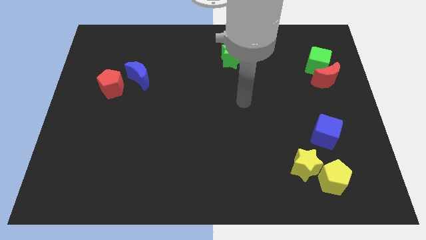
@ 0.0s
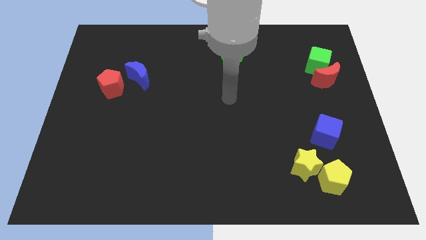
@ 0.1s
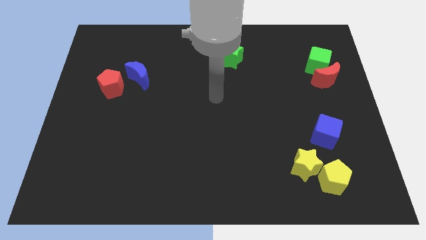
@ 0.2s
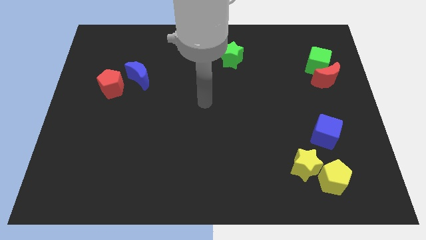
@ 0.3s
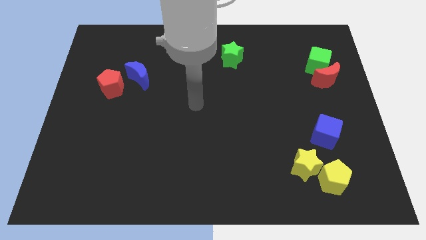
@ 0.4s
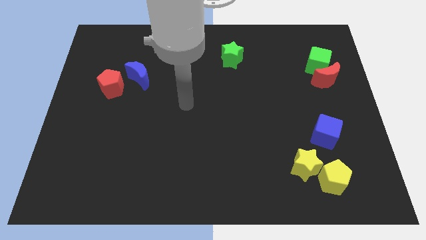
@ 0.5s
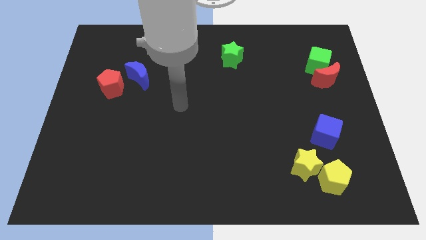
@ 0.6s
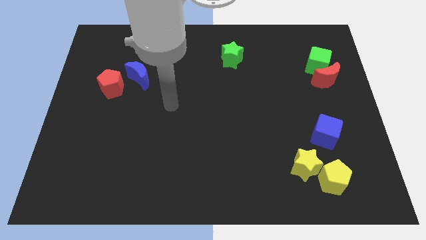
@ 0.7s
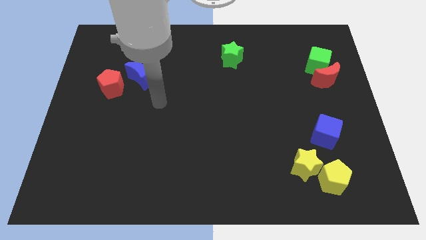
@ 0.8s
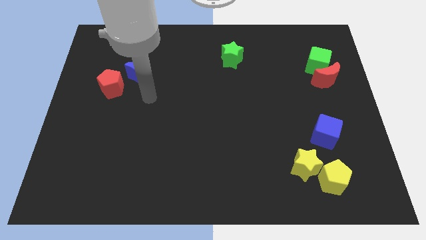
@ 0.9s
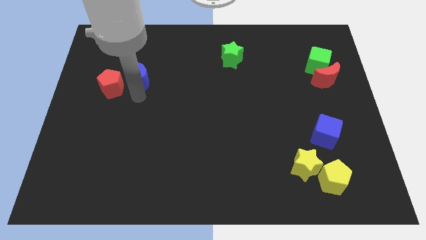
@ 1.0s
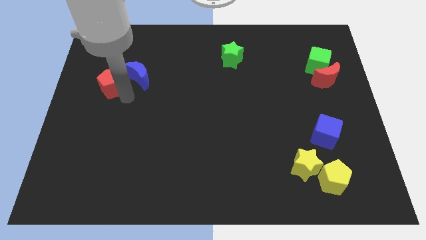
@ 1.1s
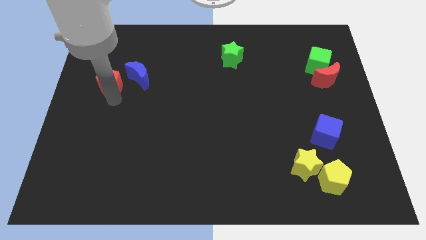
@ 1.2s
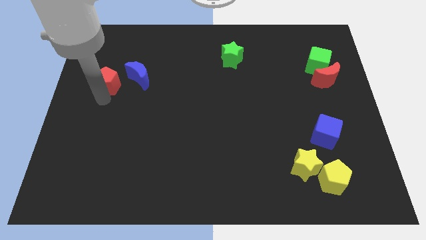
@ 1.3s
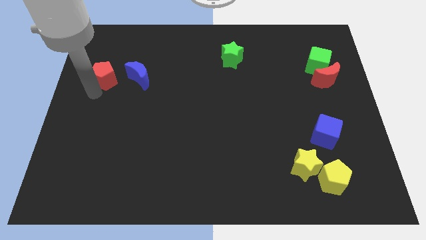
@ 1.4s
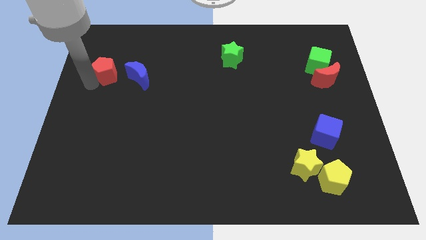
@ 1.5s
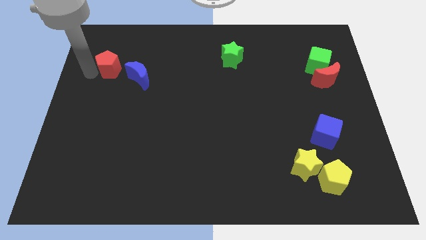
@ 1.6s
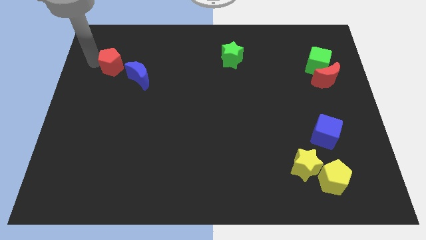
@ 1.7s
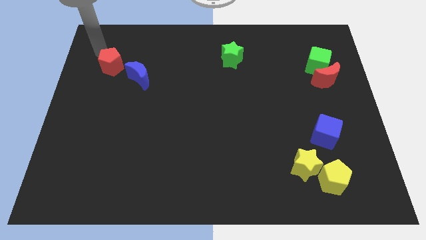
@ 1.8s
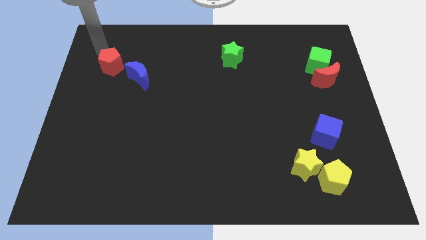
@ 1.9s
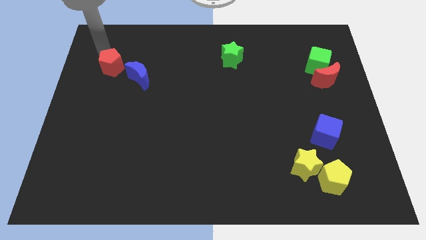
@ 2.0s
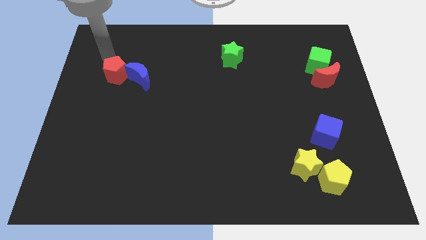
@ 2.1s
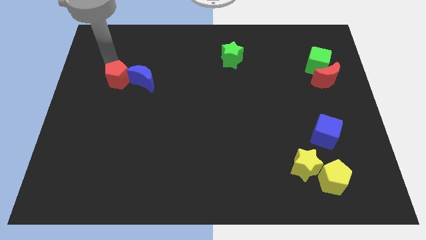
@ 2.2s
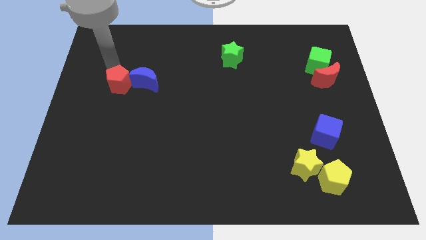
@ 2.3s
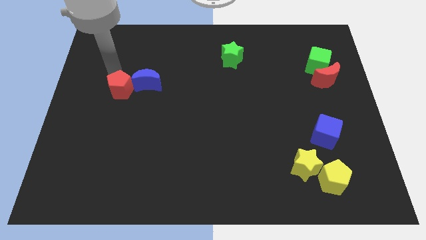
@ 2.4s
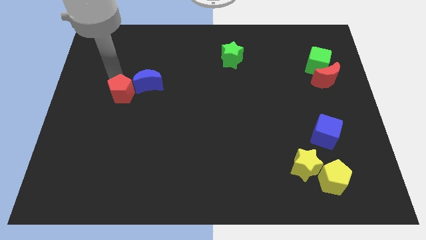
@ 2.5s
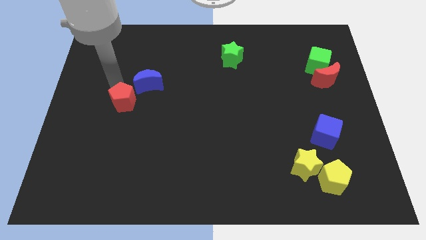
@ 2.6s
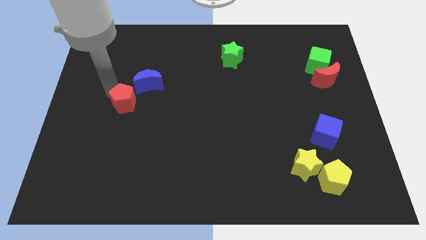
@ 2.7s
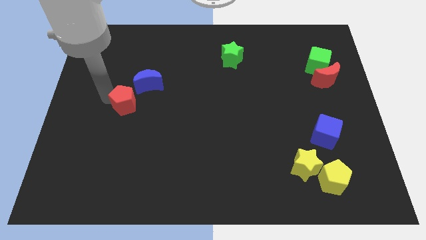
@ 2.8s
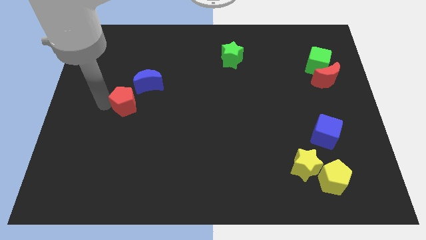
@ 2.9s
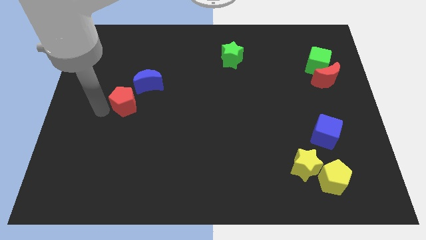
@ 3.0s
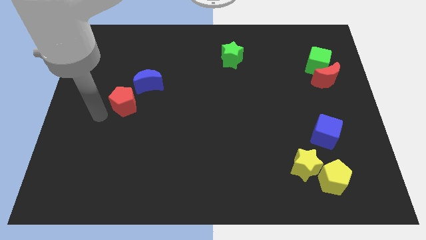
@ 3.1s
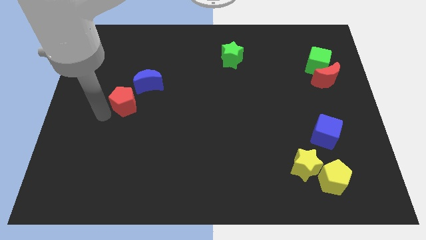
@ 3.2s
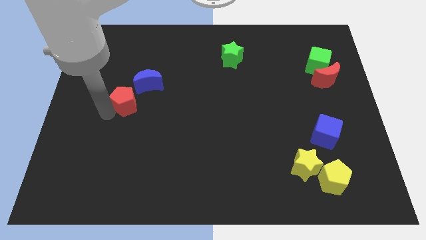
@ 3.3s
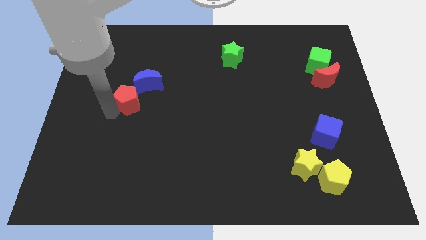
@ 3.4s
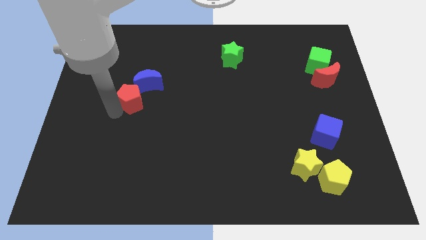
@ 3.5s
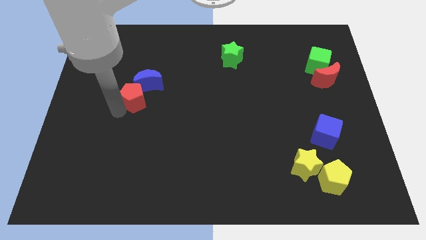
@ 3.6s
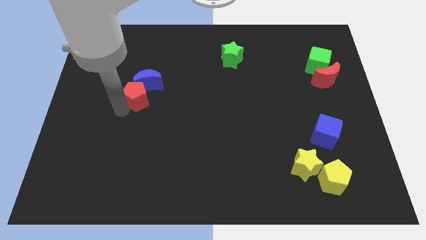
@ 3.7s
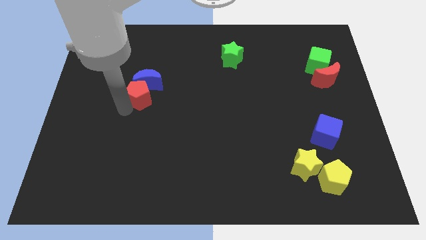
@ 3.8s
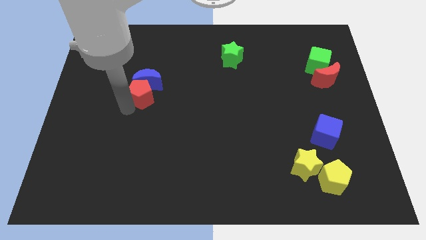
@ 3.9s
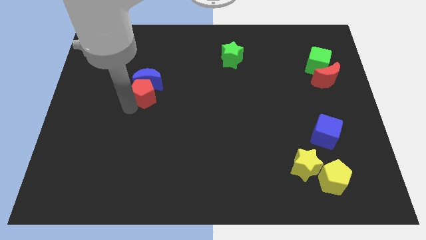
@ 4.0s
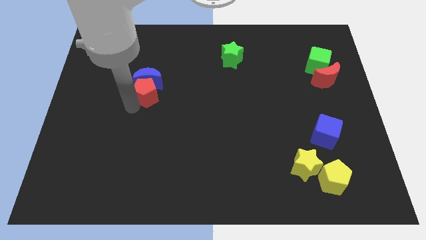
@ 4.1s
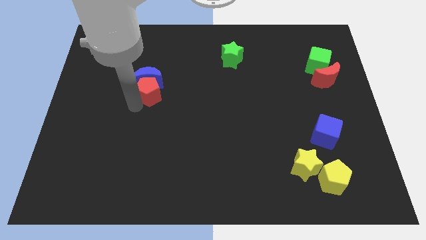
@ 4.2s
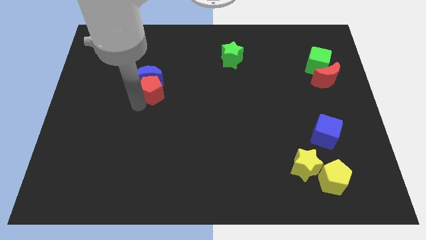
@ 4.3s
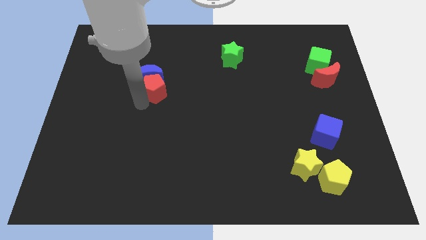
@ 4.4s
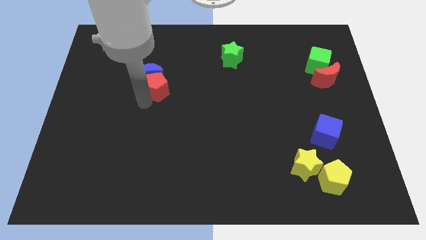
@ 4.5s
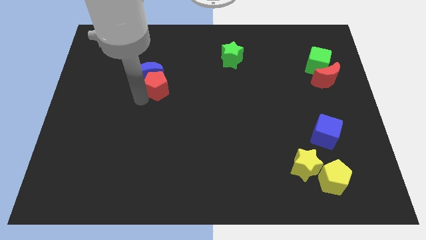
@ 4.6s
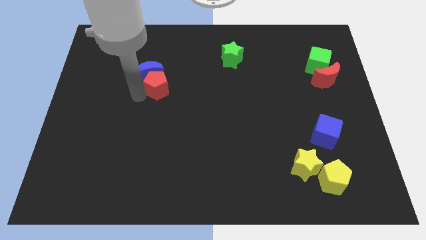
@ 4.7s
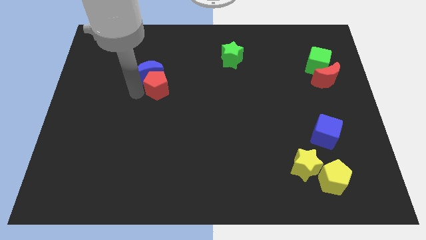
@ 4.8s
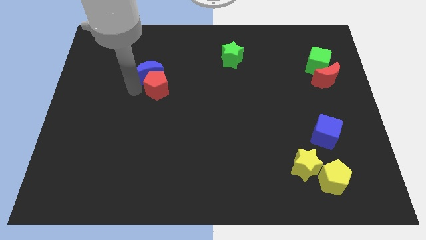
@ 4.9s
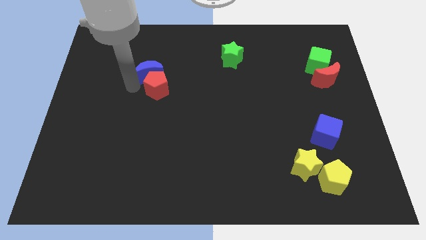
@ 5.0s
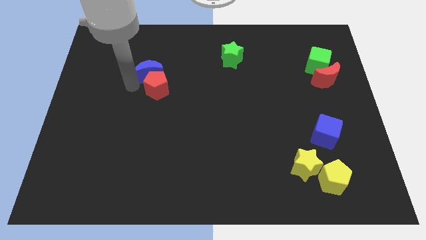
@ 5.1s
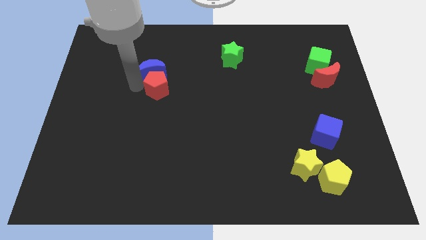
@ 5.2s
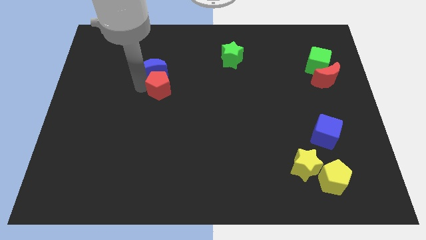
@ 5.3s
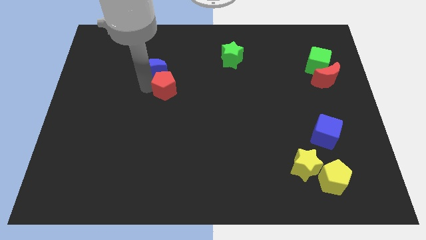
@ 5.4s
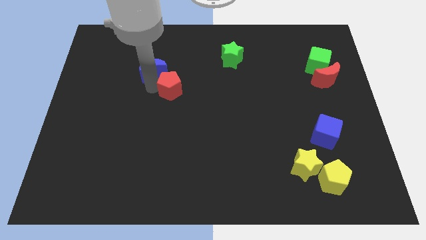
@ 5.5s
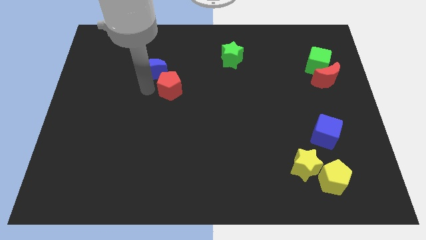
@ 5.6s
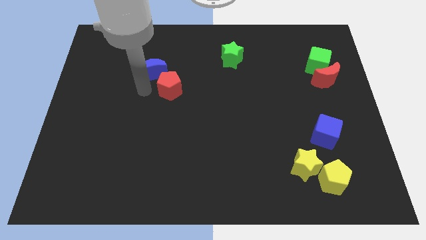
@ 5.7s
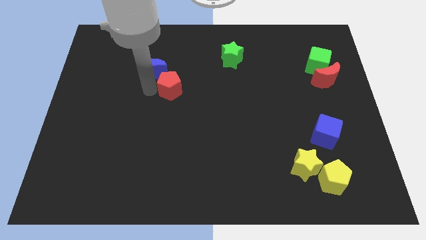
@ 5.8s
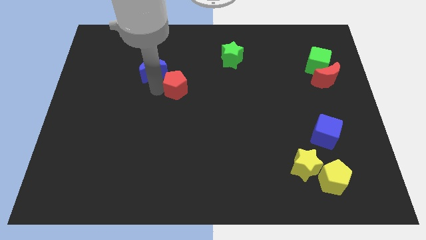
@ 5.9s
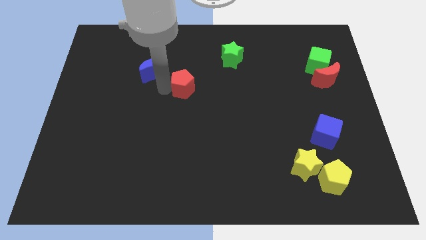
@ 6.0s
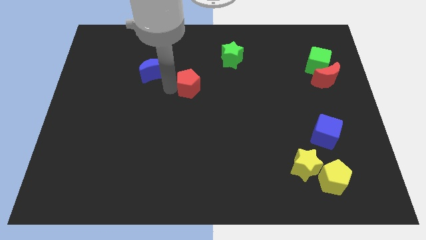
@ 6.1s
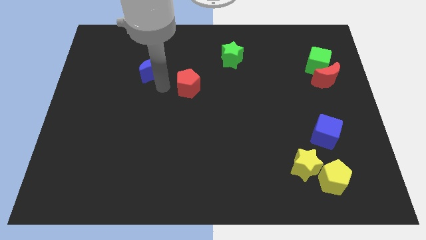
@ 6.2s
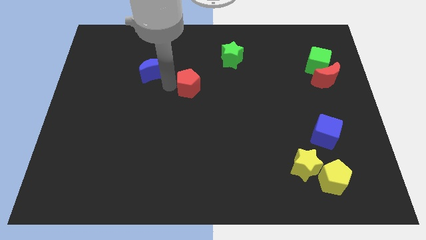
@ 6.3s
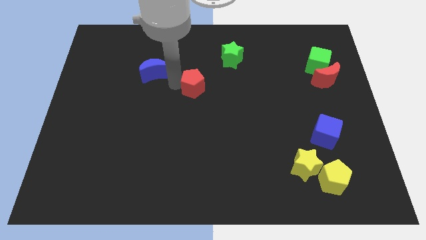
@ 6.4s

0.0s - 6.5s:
move the red pentagon to the right

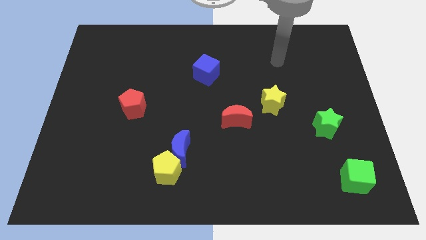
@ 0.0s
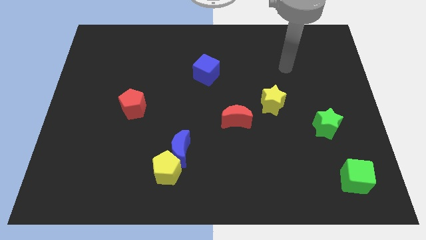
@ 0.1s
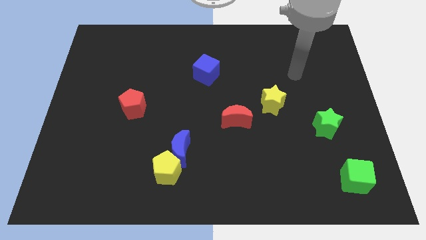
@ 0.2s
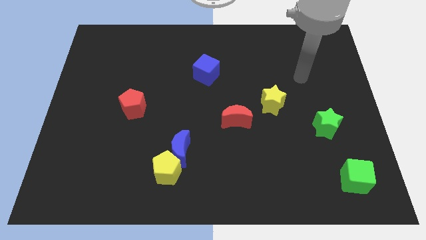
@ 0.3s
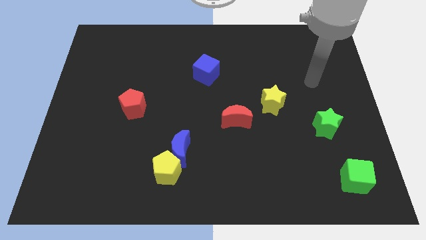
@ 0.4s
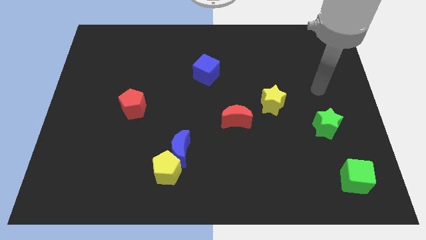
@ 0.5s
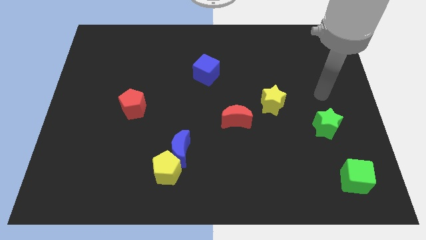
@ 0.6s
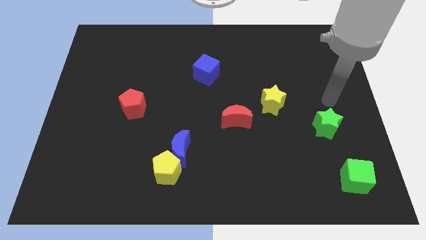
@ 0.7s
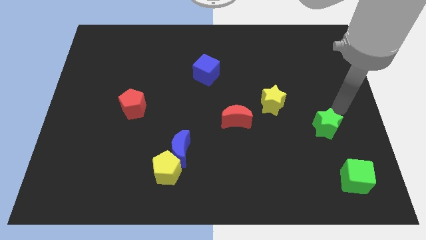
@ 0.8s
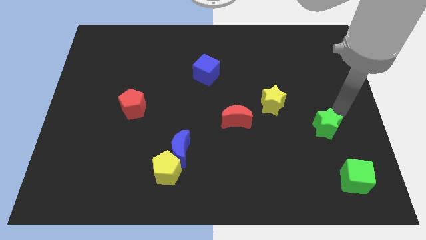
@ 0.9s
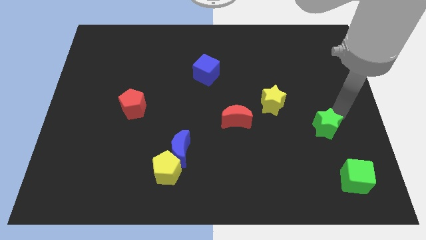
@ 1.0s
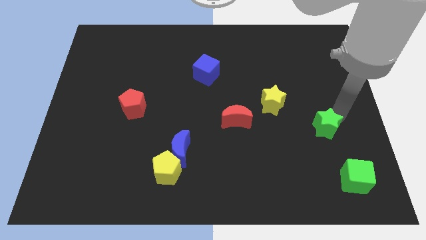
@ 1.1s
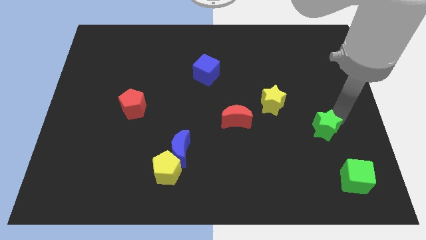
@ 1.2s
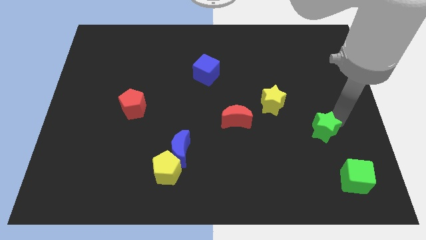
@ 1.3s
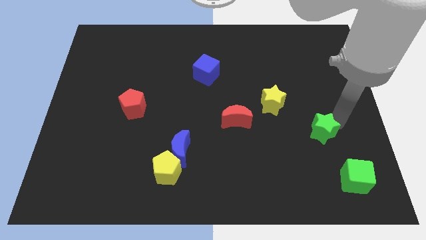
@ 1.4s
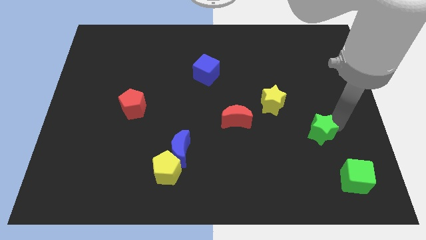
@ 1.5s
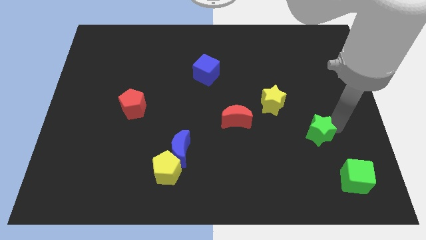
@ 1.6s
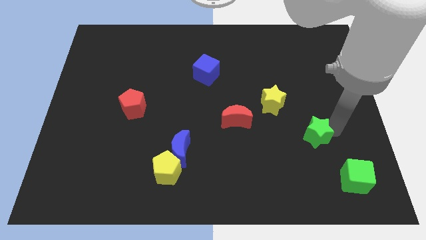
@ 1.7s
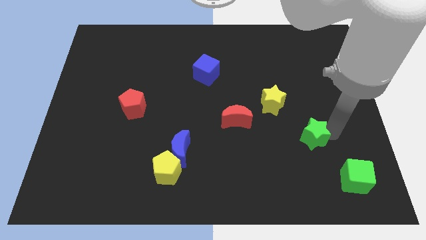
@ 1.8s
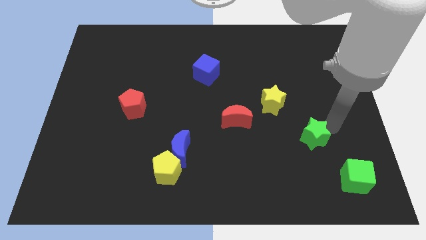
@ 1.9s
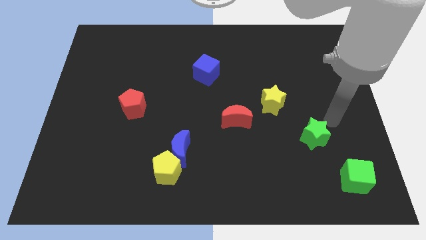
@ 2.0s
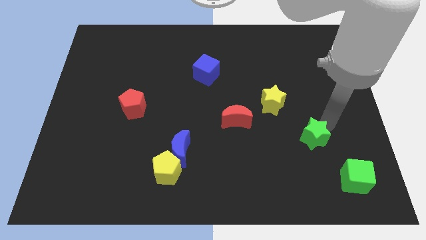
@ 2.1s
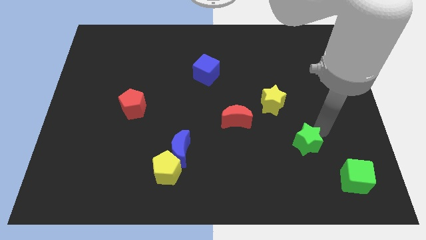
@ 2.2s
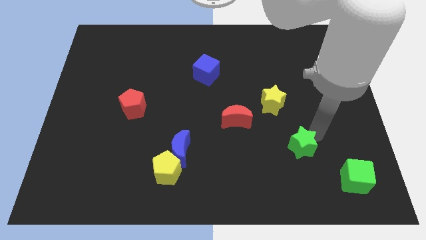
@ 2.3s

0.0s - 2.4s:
move the green star a bit diagonally downwards and to the left
